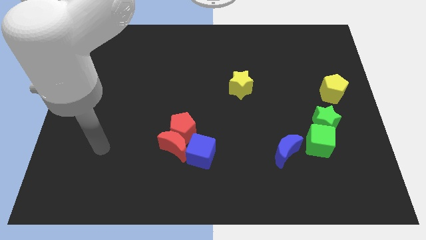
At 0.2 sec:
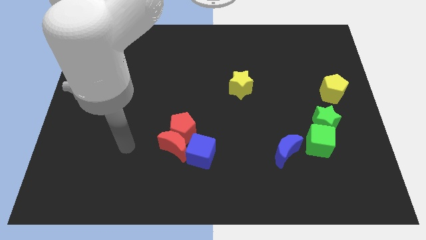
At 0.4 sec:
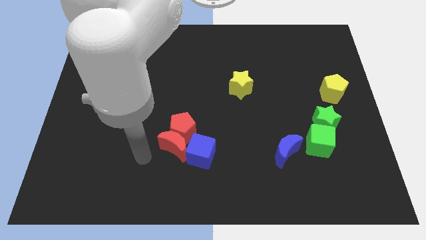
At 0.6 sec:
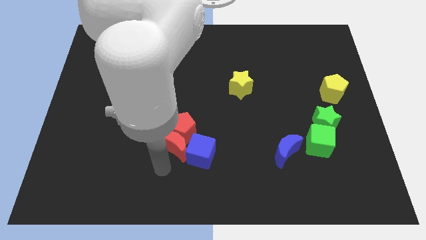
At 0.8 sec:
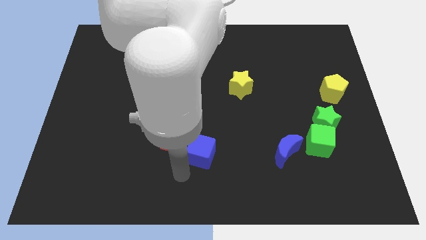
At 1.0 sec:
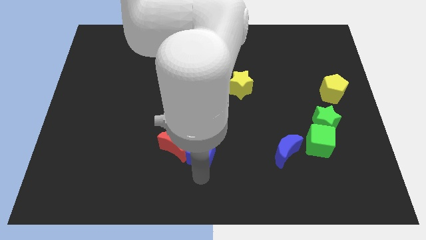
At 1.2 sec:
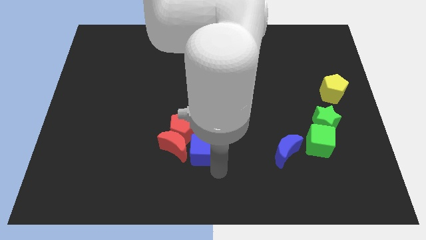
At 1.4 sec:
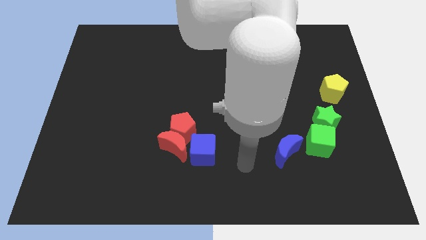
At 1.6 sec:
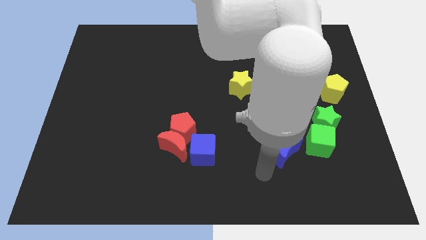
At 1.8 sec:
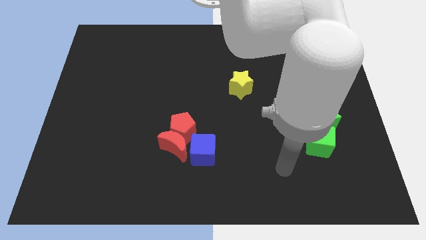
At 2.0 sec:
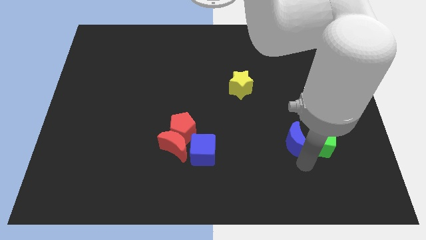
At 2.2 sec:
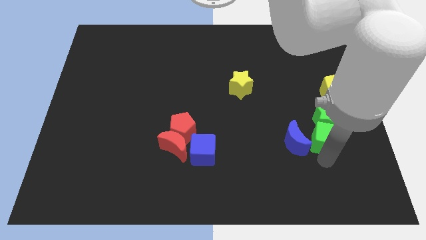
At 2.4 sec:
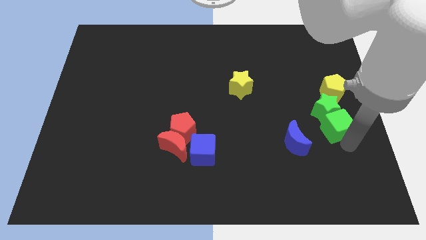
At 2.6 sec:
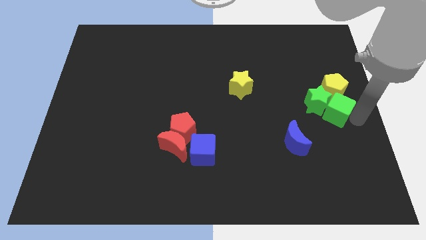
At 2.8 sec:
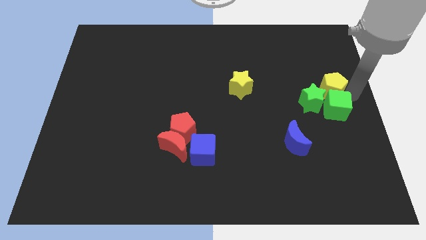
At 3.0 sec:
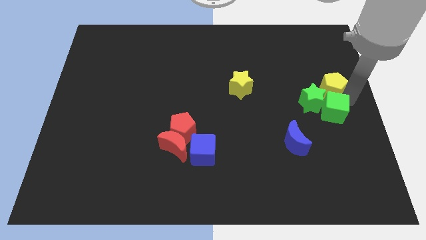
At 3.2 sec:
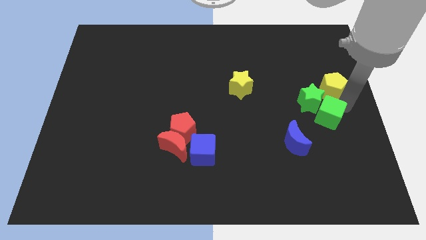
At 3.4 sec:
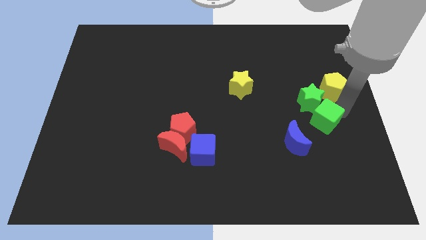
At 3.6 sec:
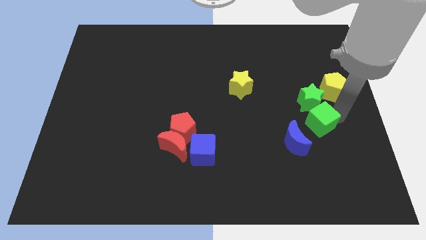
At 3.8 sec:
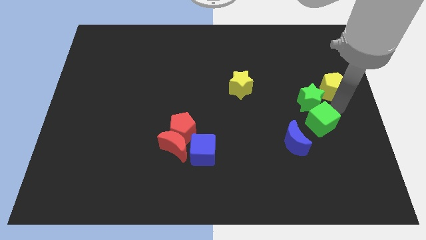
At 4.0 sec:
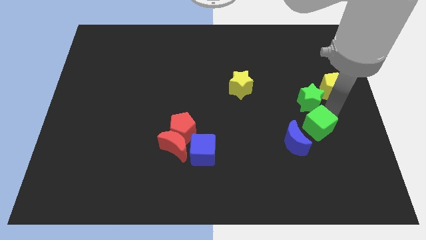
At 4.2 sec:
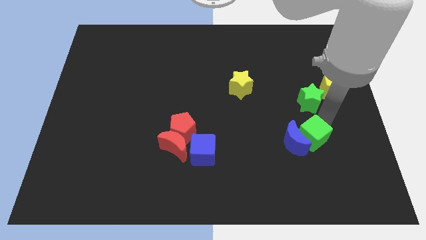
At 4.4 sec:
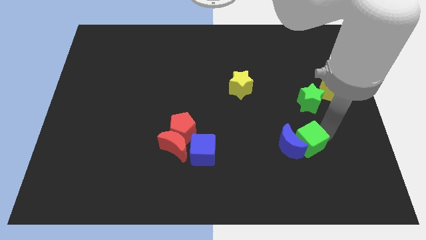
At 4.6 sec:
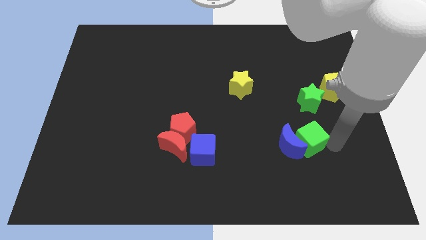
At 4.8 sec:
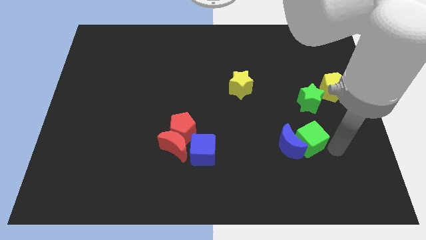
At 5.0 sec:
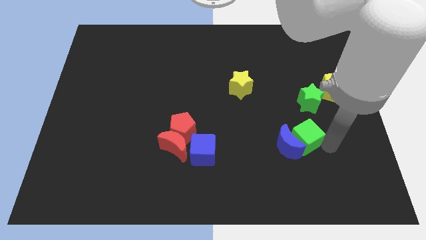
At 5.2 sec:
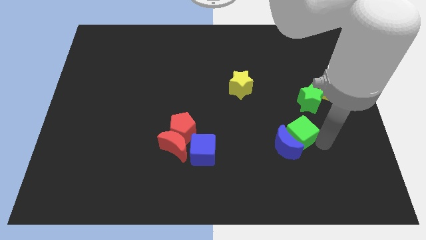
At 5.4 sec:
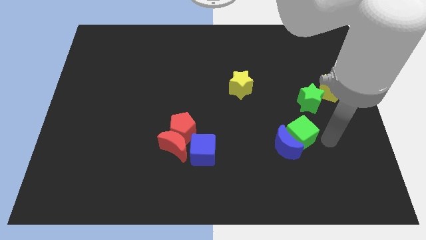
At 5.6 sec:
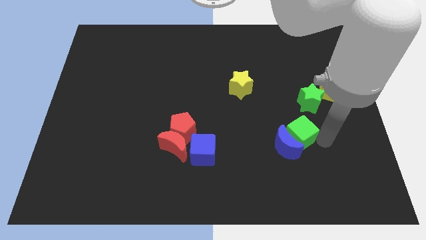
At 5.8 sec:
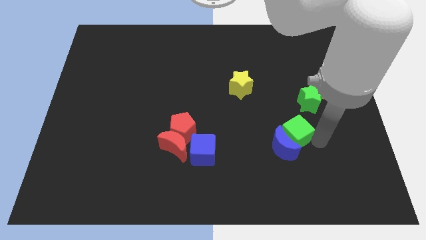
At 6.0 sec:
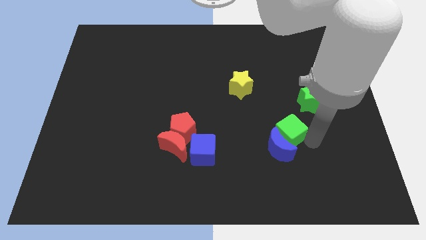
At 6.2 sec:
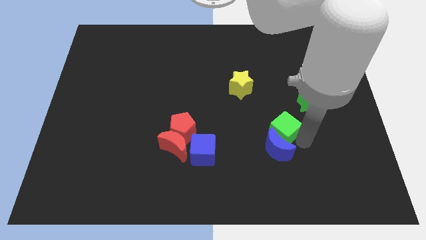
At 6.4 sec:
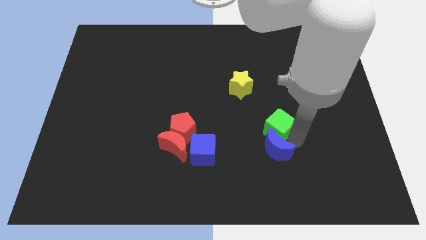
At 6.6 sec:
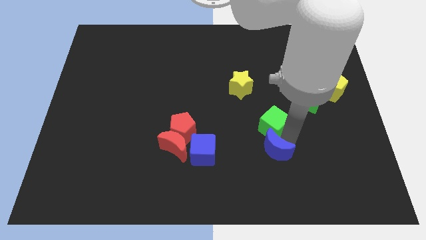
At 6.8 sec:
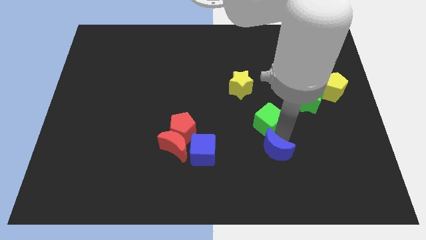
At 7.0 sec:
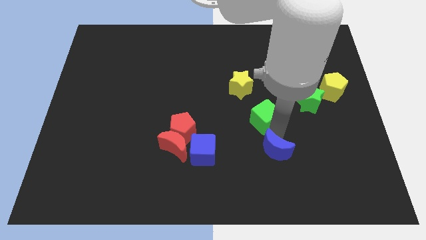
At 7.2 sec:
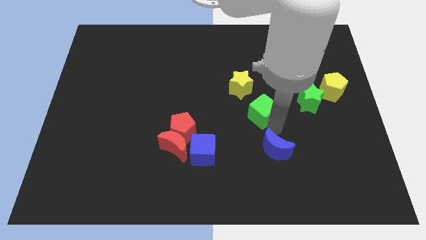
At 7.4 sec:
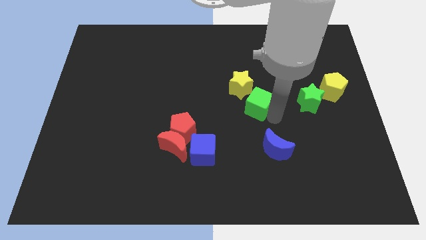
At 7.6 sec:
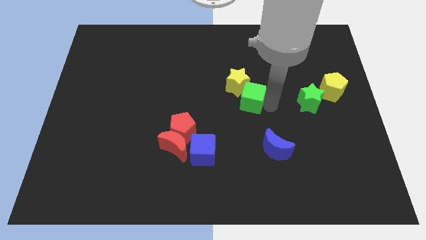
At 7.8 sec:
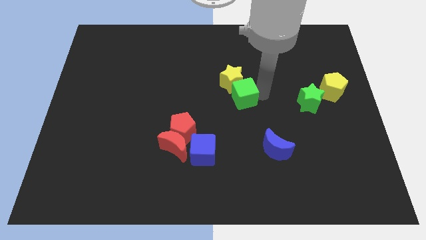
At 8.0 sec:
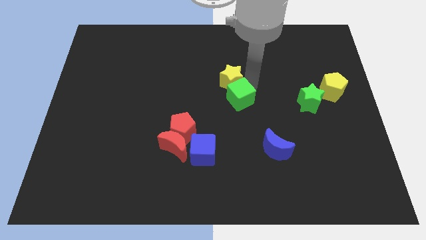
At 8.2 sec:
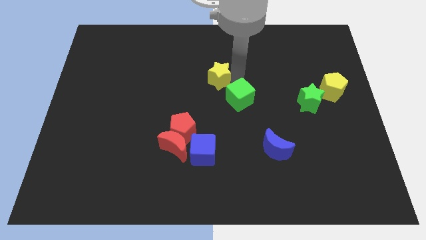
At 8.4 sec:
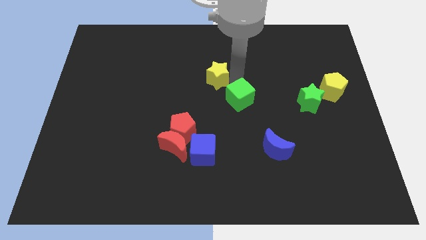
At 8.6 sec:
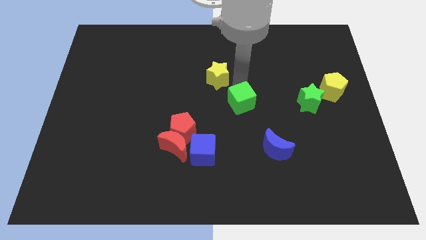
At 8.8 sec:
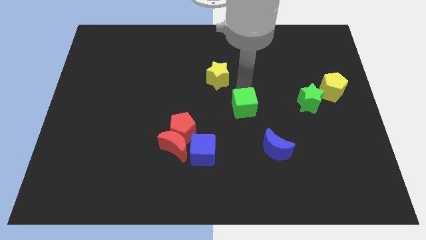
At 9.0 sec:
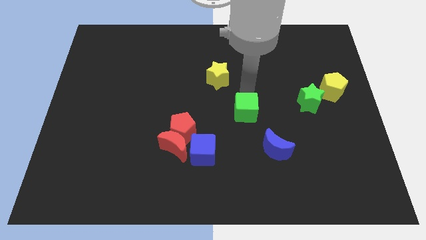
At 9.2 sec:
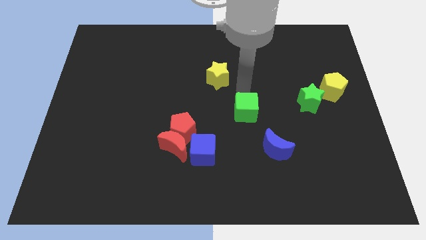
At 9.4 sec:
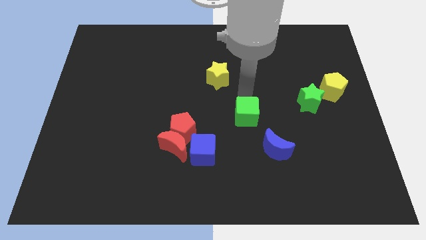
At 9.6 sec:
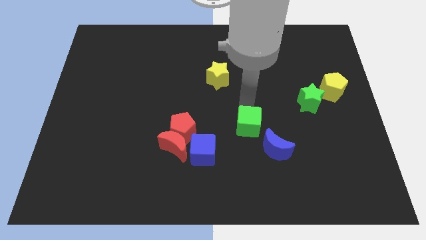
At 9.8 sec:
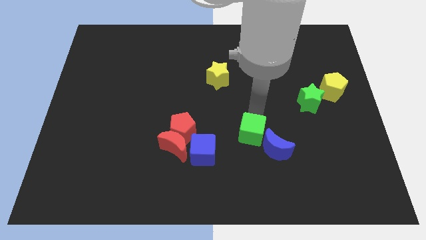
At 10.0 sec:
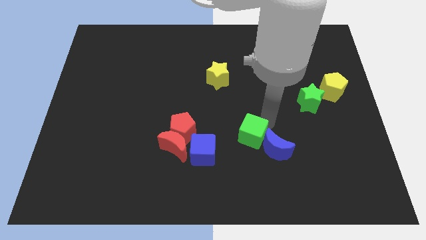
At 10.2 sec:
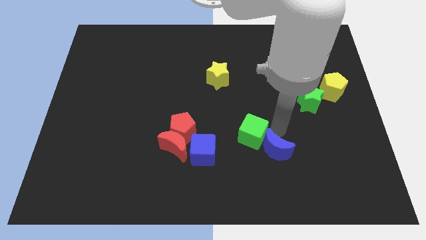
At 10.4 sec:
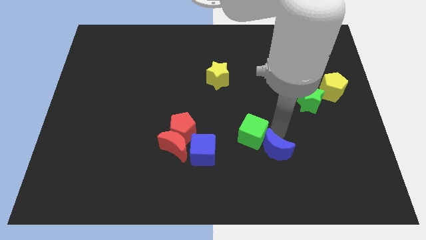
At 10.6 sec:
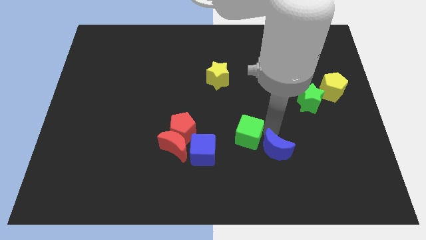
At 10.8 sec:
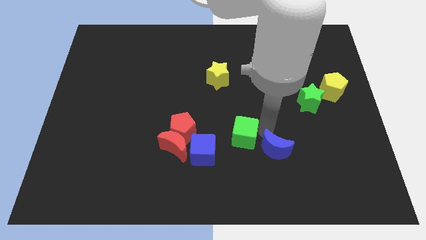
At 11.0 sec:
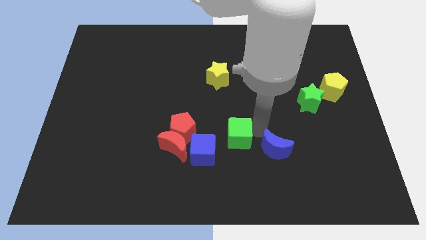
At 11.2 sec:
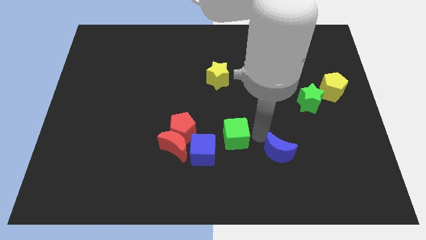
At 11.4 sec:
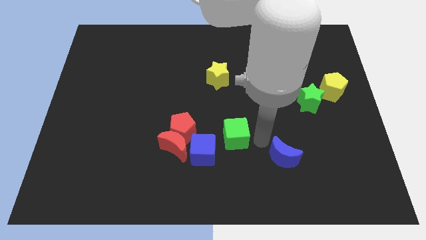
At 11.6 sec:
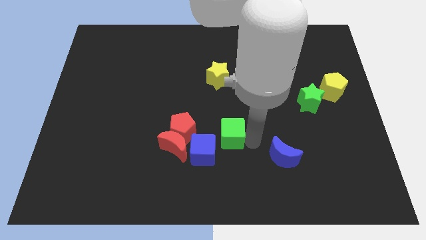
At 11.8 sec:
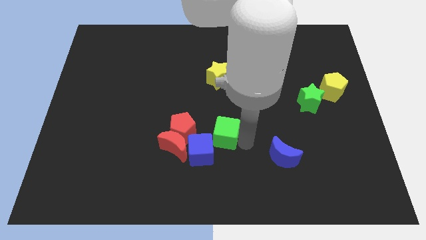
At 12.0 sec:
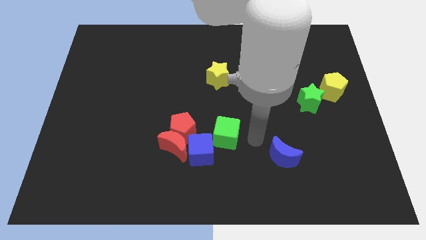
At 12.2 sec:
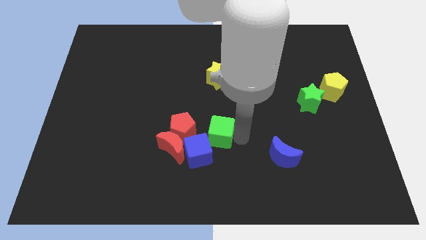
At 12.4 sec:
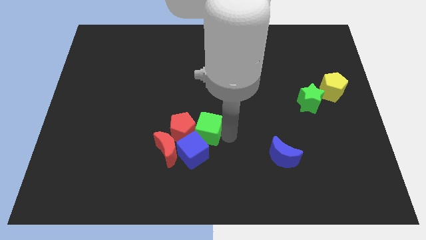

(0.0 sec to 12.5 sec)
move the green cube close to the red pentagon

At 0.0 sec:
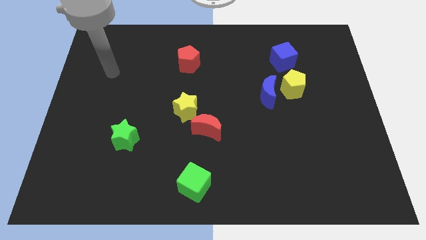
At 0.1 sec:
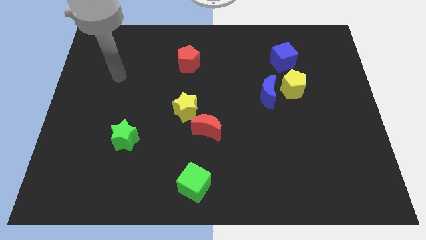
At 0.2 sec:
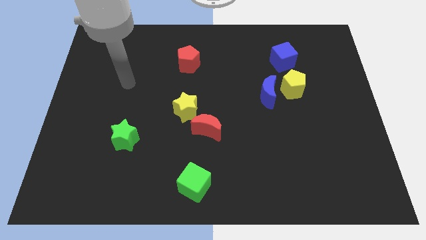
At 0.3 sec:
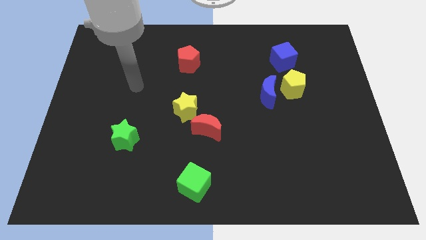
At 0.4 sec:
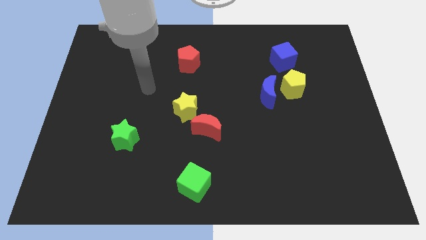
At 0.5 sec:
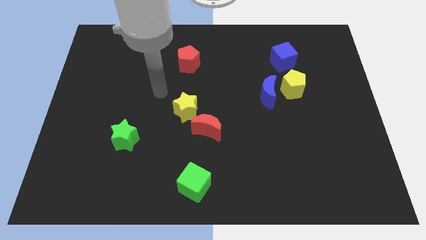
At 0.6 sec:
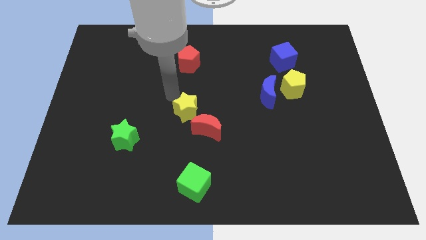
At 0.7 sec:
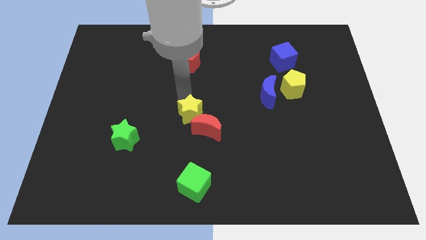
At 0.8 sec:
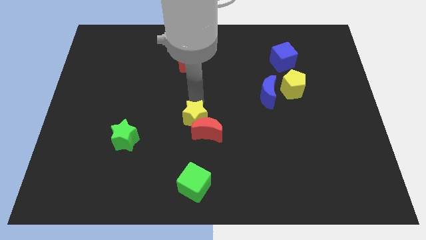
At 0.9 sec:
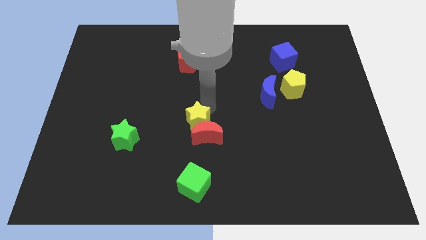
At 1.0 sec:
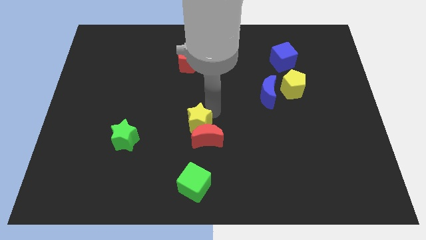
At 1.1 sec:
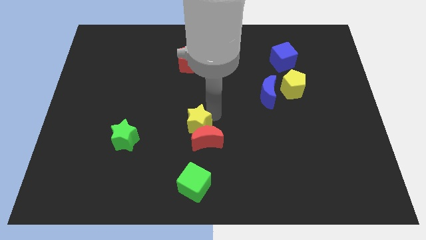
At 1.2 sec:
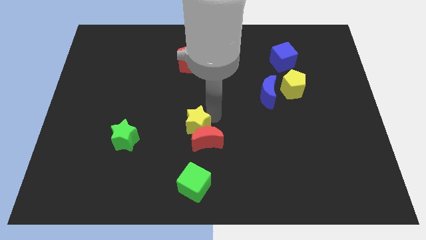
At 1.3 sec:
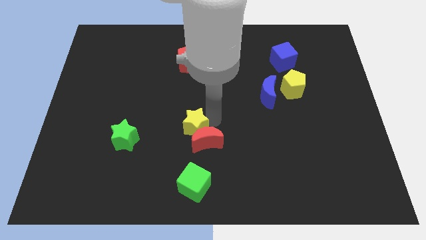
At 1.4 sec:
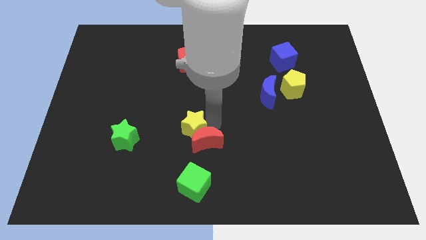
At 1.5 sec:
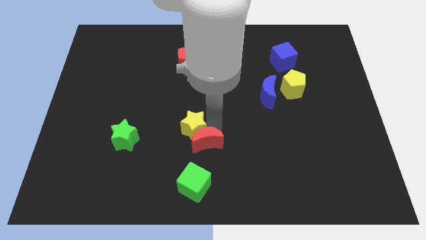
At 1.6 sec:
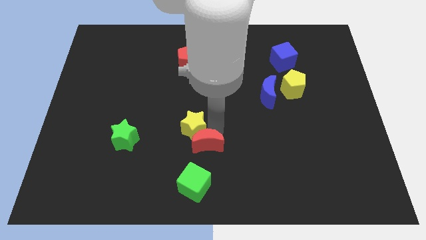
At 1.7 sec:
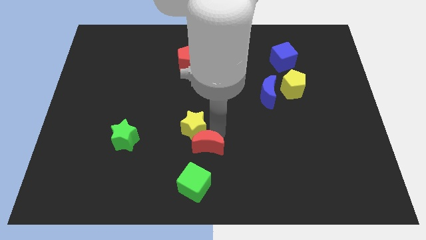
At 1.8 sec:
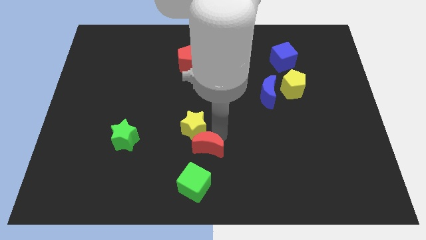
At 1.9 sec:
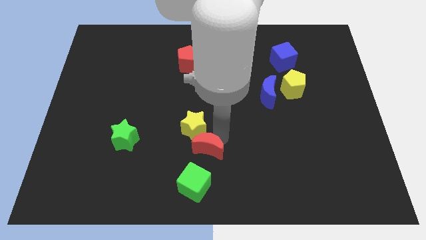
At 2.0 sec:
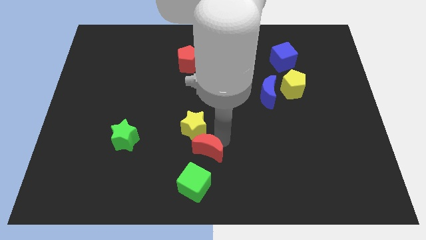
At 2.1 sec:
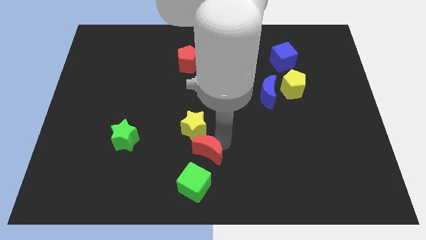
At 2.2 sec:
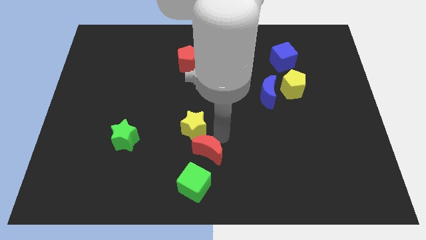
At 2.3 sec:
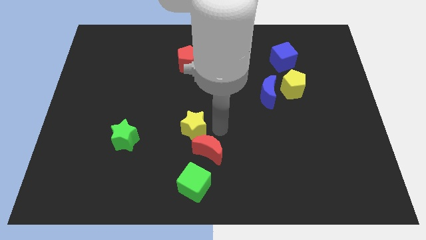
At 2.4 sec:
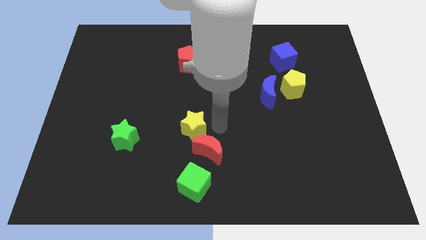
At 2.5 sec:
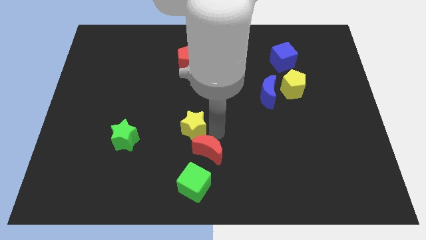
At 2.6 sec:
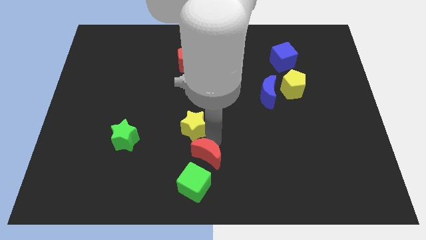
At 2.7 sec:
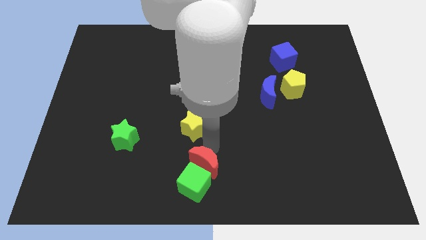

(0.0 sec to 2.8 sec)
move the red moon close to the green cube
